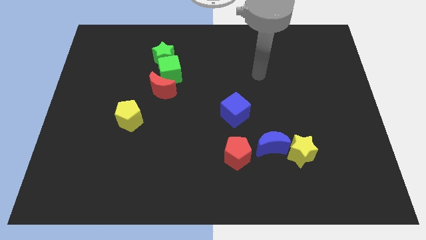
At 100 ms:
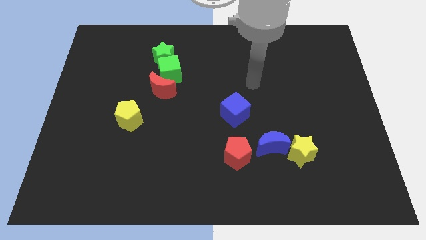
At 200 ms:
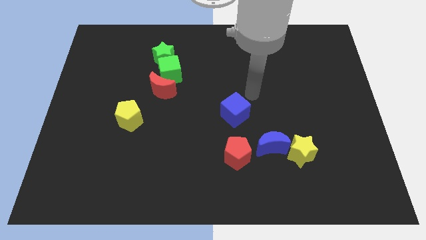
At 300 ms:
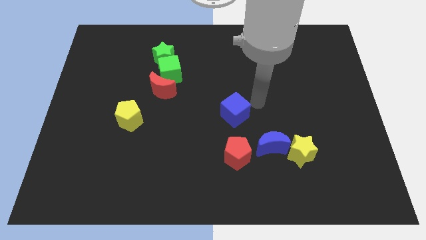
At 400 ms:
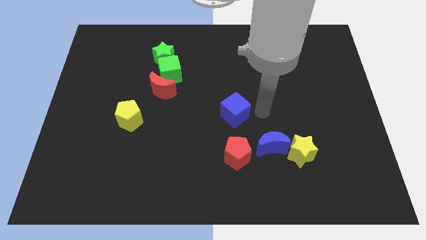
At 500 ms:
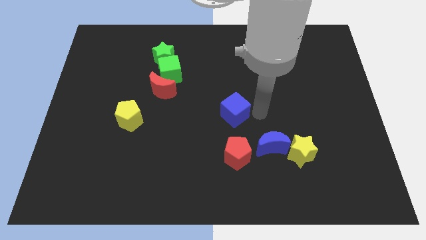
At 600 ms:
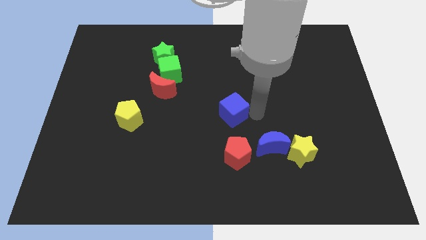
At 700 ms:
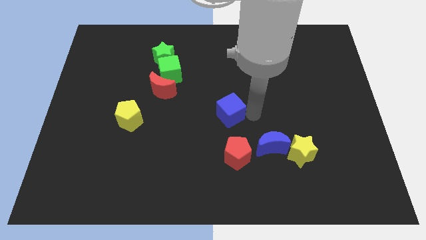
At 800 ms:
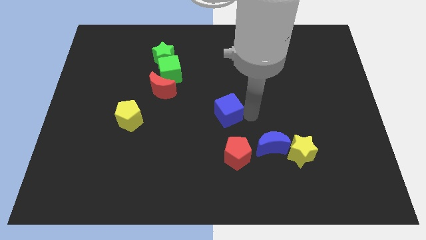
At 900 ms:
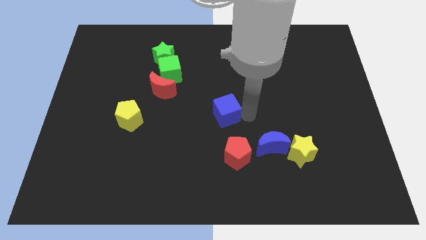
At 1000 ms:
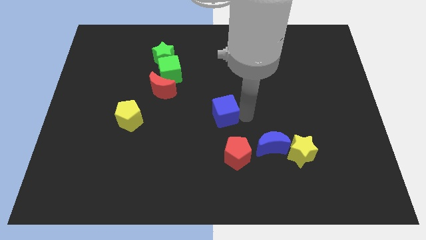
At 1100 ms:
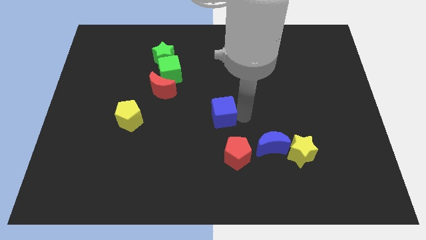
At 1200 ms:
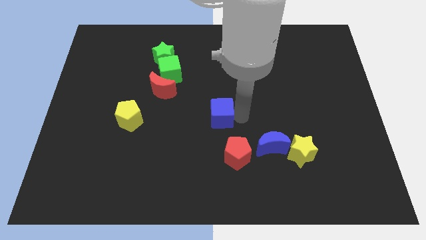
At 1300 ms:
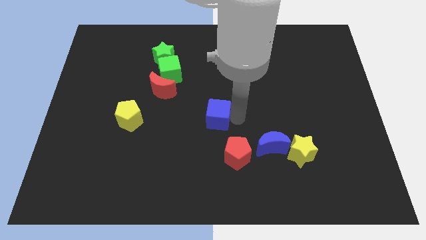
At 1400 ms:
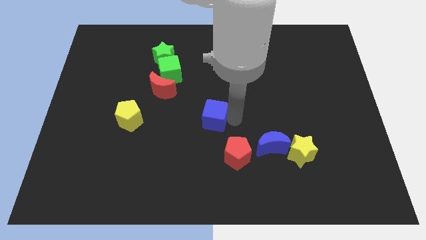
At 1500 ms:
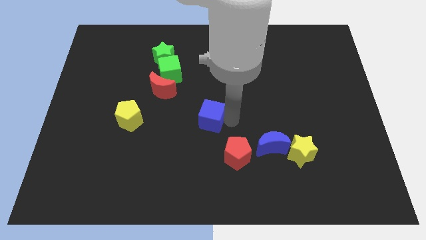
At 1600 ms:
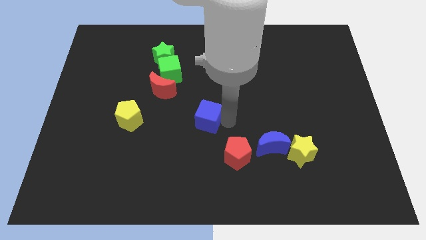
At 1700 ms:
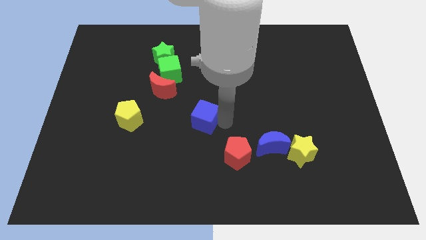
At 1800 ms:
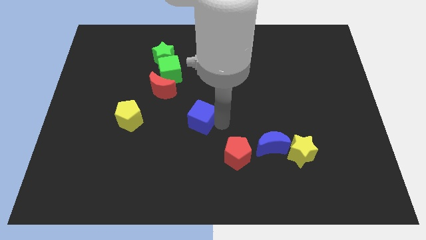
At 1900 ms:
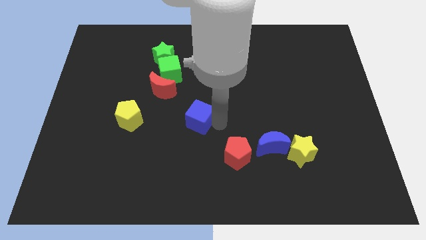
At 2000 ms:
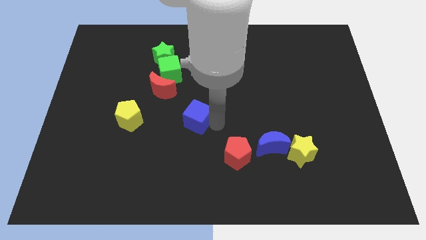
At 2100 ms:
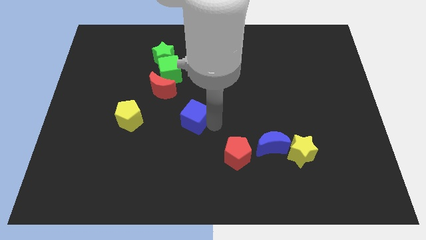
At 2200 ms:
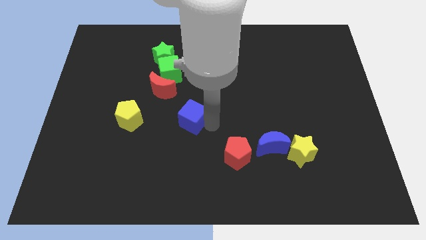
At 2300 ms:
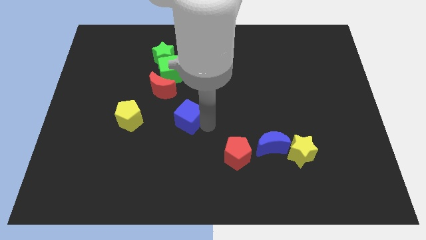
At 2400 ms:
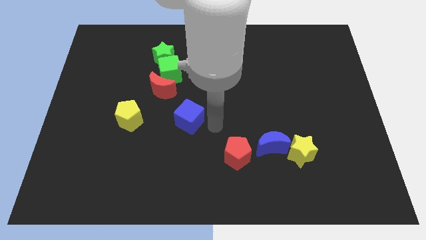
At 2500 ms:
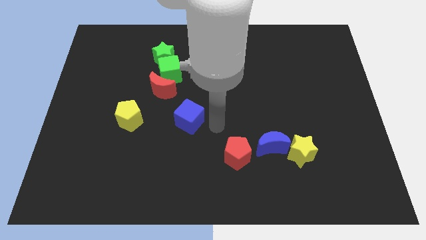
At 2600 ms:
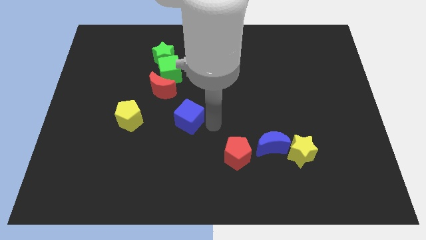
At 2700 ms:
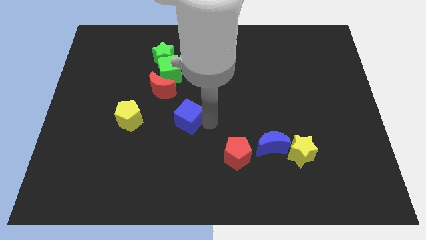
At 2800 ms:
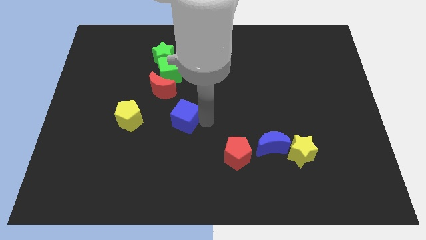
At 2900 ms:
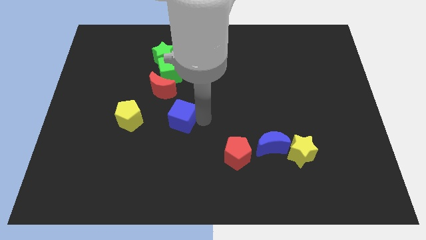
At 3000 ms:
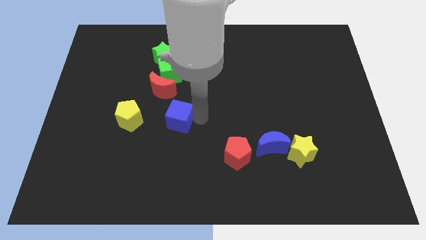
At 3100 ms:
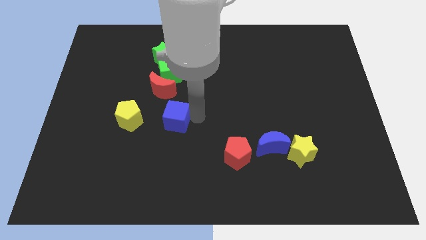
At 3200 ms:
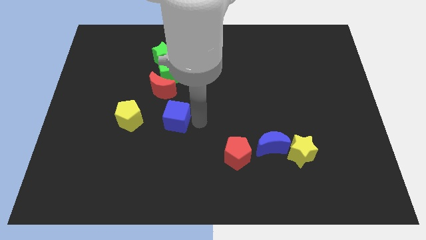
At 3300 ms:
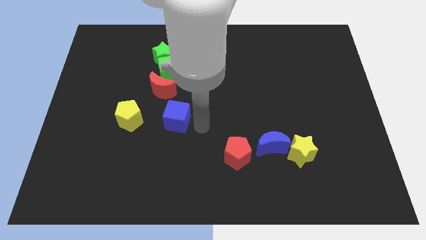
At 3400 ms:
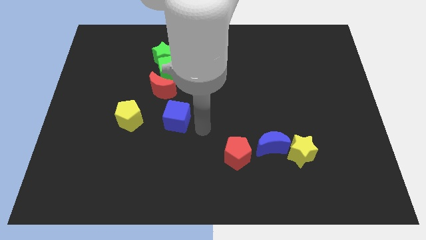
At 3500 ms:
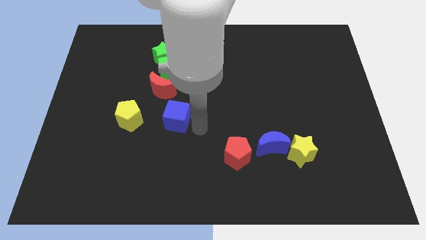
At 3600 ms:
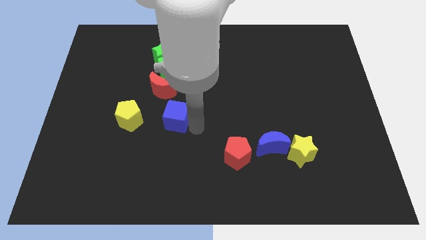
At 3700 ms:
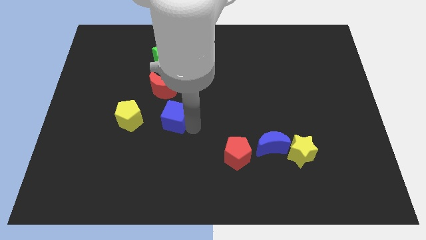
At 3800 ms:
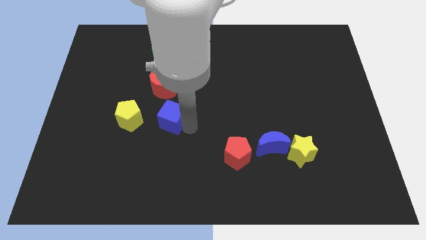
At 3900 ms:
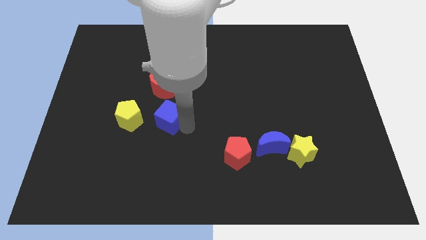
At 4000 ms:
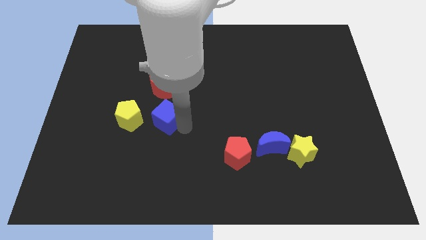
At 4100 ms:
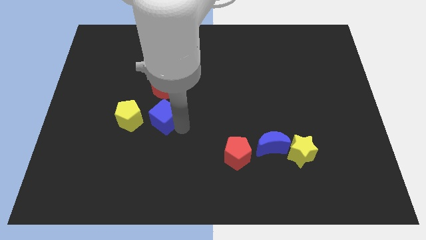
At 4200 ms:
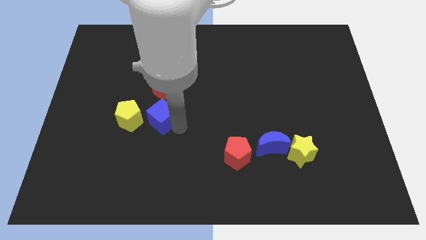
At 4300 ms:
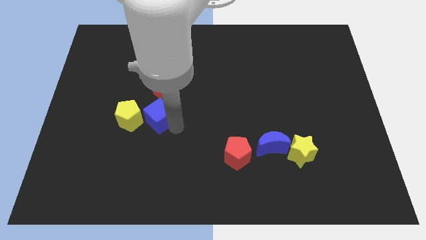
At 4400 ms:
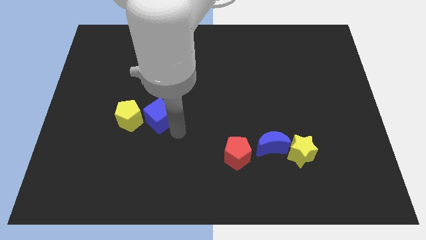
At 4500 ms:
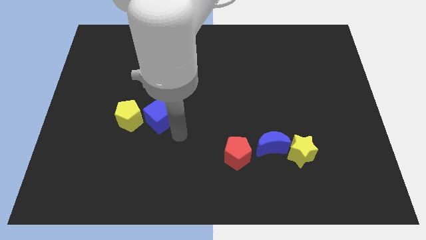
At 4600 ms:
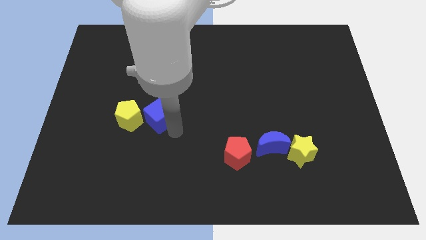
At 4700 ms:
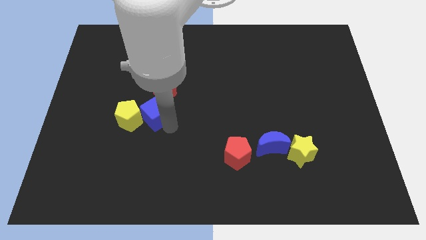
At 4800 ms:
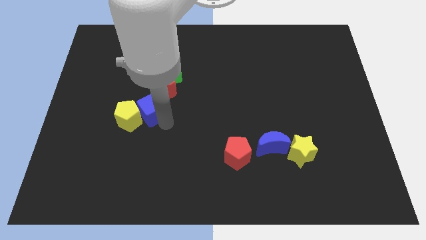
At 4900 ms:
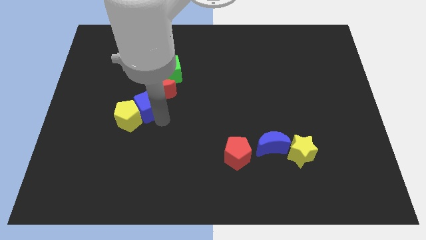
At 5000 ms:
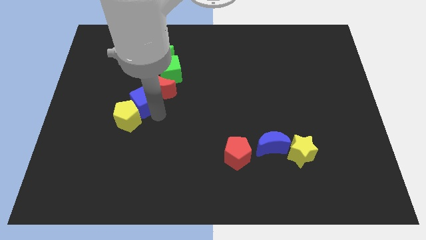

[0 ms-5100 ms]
move the blue cube just left of the red moon

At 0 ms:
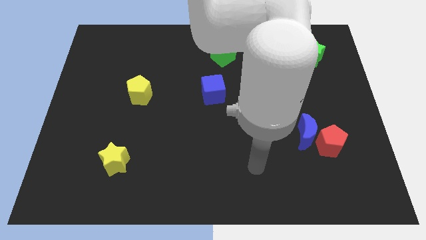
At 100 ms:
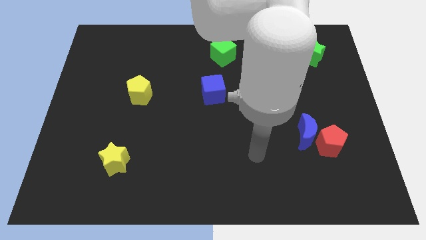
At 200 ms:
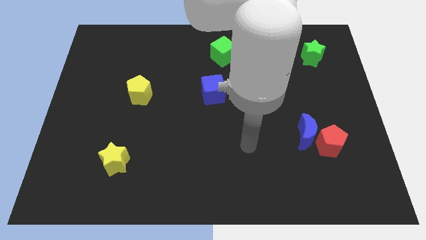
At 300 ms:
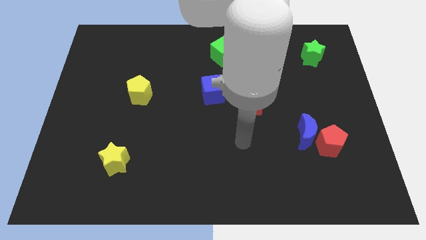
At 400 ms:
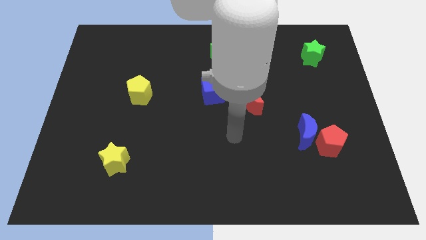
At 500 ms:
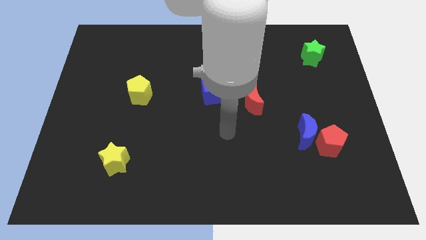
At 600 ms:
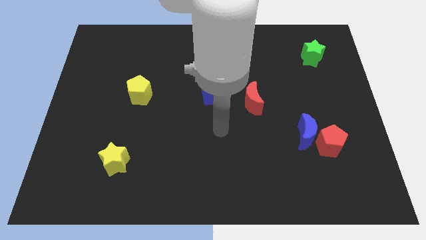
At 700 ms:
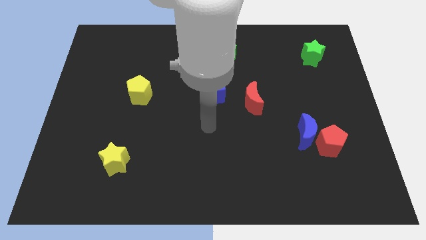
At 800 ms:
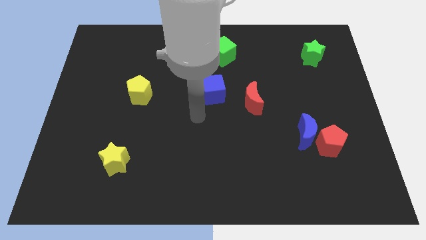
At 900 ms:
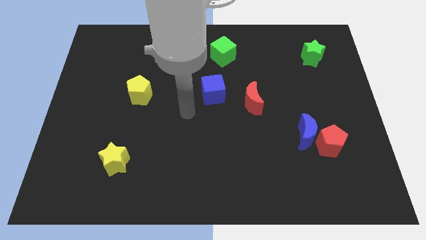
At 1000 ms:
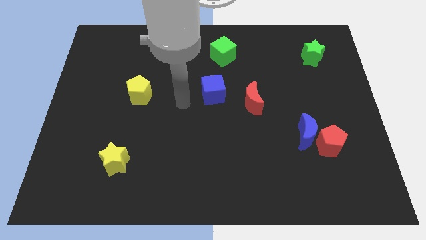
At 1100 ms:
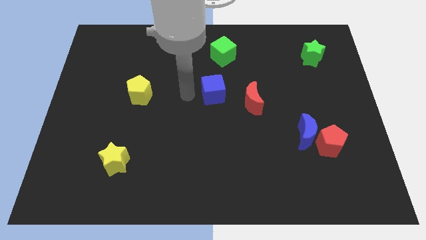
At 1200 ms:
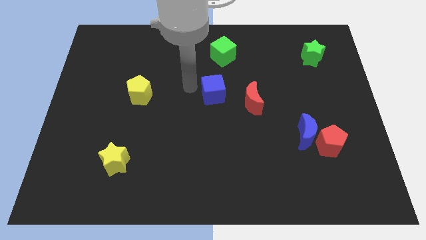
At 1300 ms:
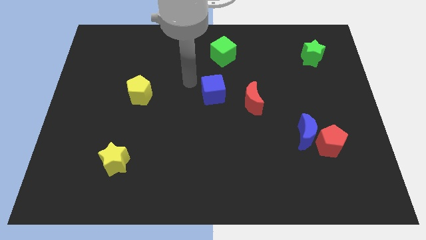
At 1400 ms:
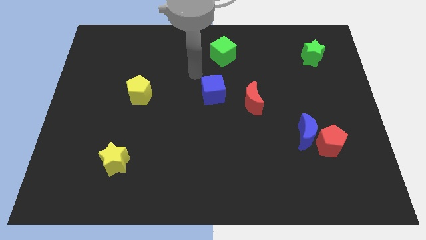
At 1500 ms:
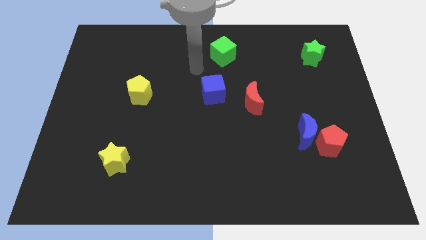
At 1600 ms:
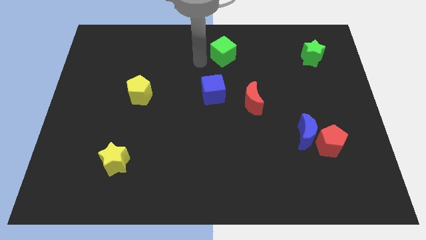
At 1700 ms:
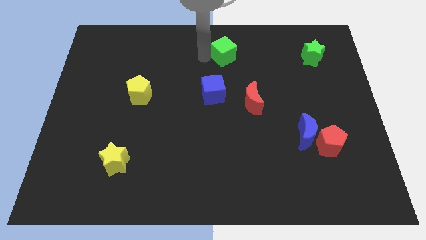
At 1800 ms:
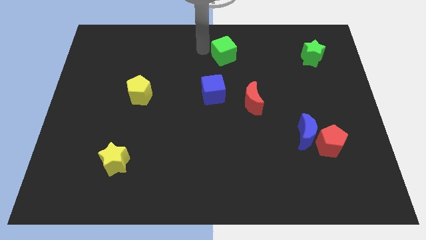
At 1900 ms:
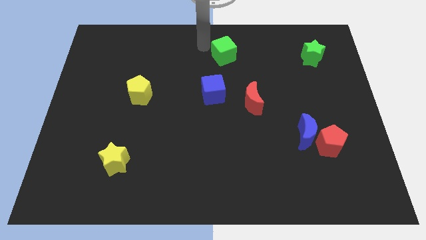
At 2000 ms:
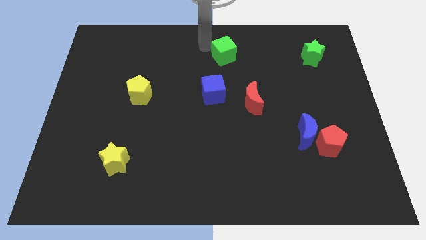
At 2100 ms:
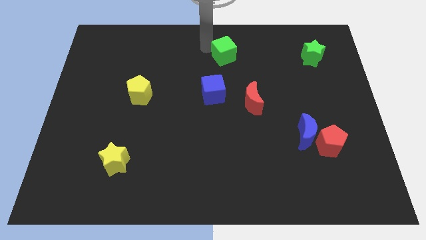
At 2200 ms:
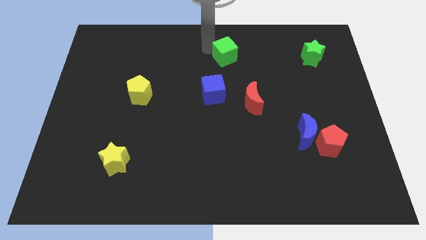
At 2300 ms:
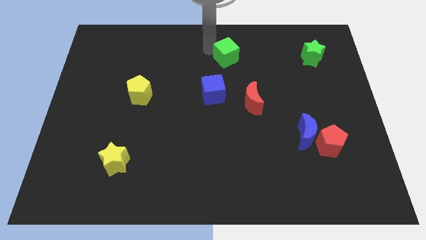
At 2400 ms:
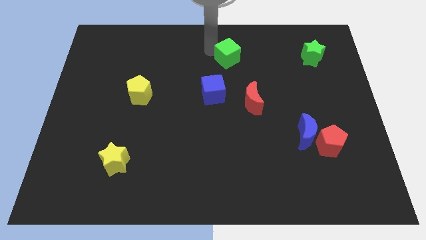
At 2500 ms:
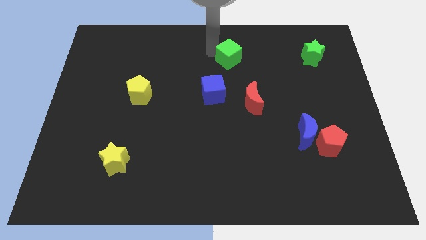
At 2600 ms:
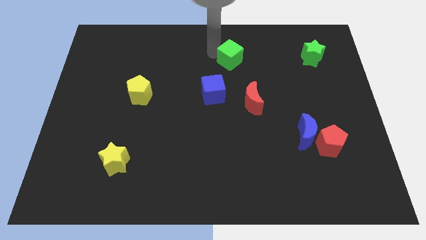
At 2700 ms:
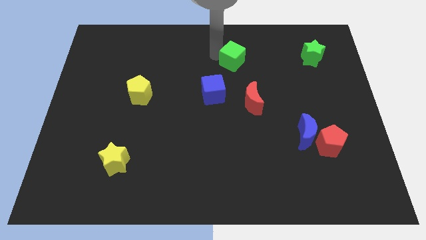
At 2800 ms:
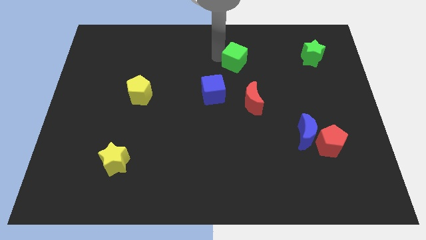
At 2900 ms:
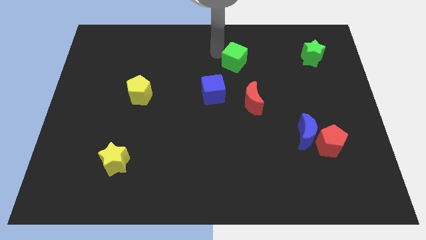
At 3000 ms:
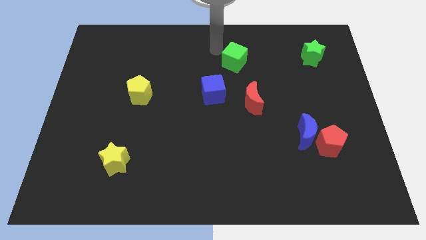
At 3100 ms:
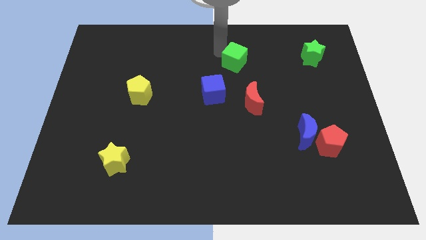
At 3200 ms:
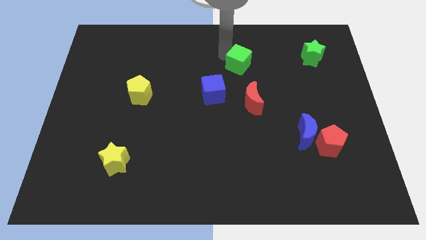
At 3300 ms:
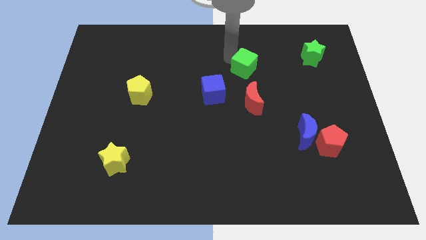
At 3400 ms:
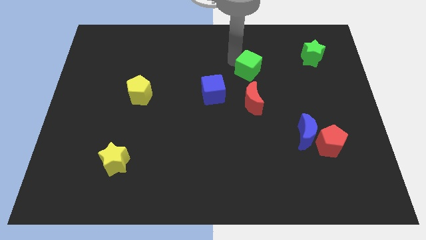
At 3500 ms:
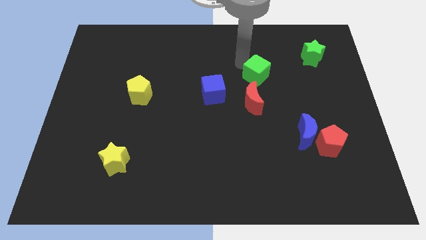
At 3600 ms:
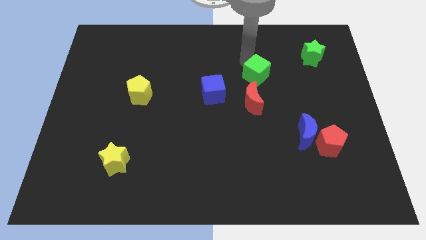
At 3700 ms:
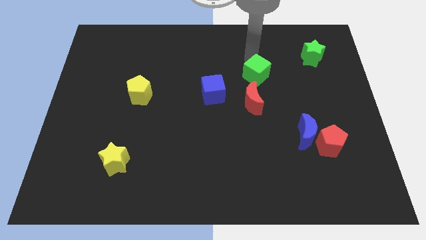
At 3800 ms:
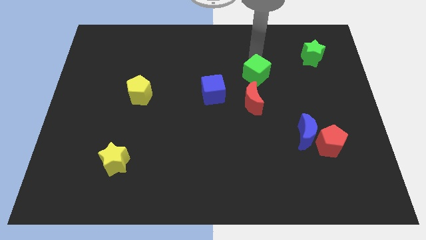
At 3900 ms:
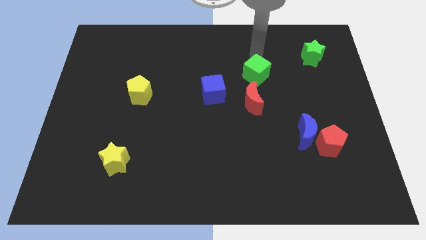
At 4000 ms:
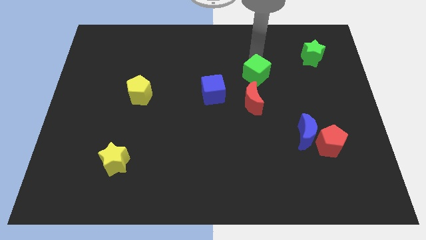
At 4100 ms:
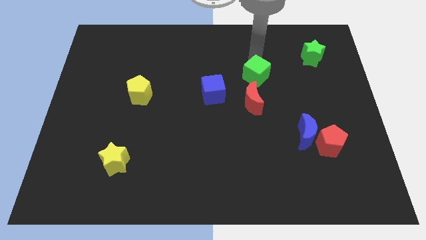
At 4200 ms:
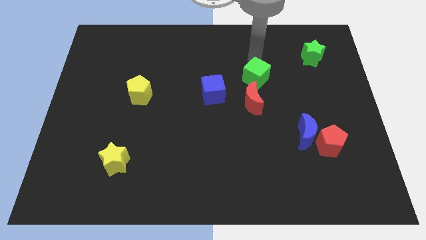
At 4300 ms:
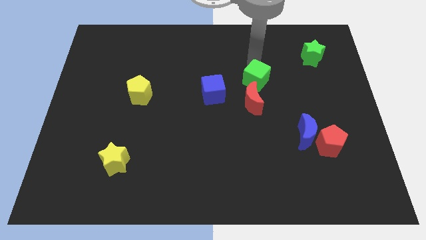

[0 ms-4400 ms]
slide the green cube to the right of the blue cube
